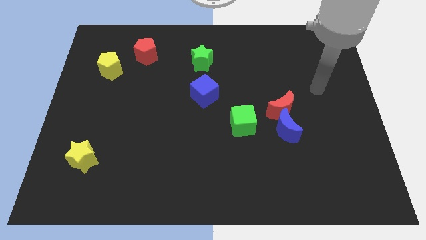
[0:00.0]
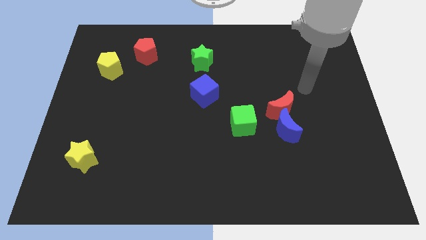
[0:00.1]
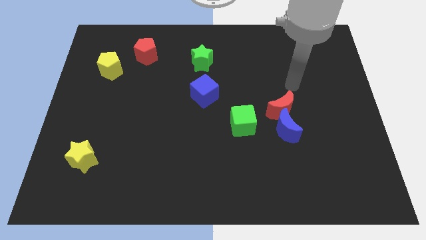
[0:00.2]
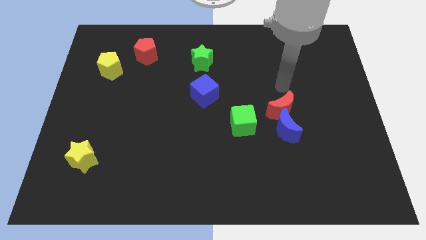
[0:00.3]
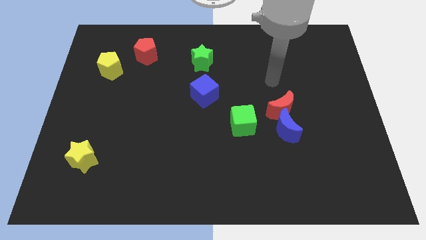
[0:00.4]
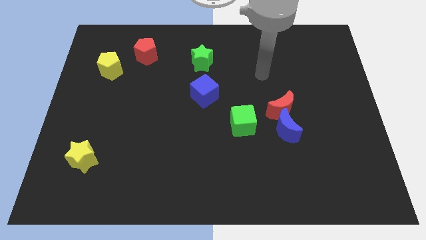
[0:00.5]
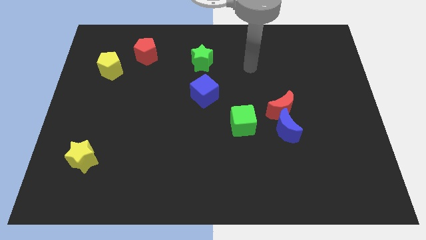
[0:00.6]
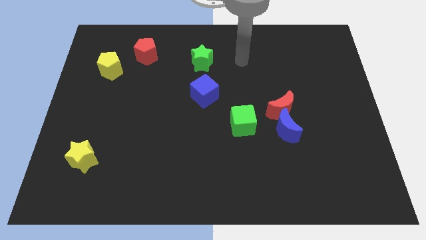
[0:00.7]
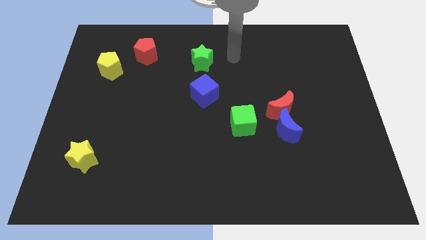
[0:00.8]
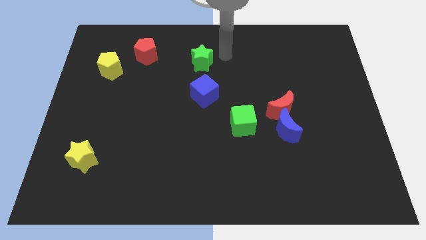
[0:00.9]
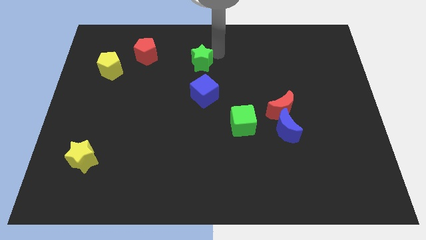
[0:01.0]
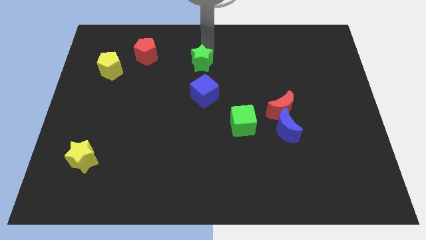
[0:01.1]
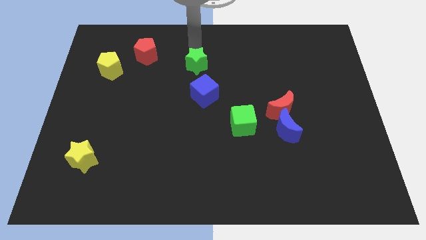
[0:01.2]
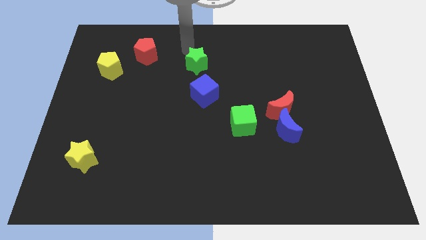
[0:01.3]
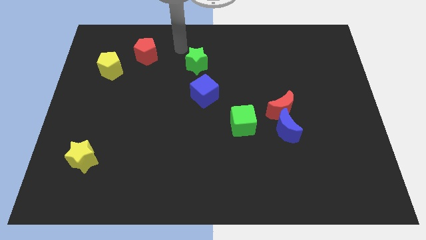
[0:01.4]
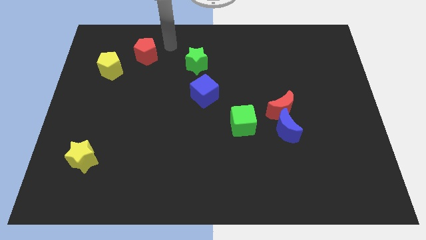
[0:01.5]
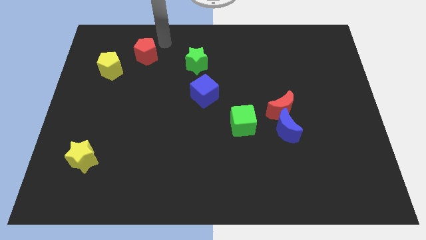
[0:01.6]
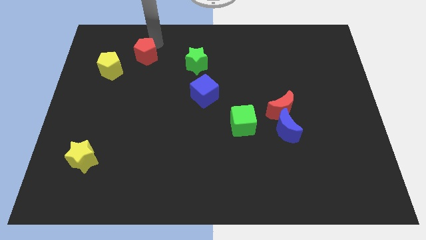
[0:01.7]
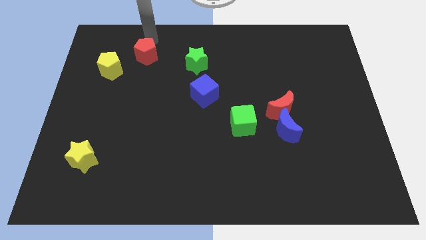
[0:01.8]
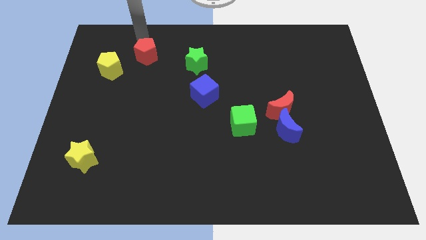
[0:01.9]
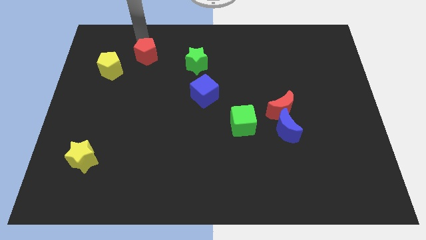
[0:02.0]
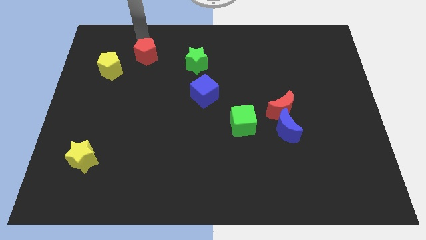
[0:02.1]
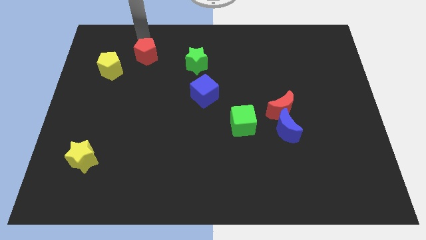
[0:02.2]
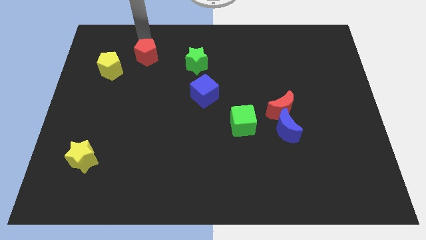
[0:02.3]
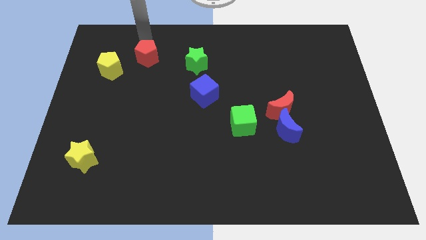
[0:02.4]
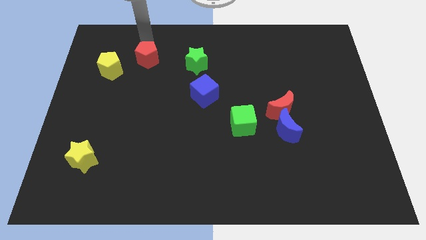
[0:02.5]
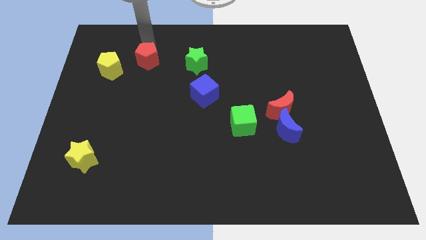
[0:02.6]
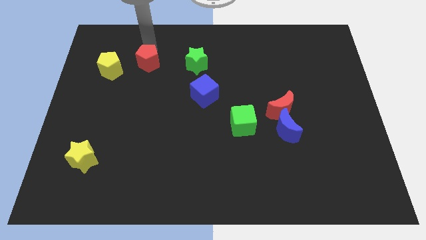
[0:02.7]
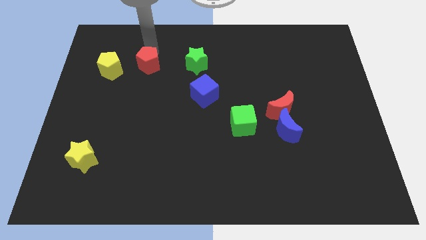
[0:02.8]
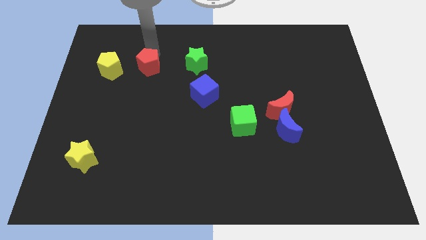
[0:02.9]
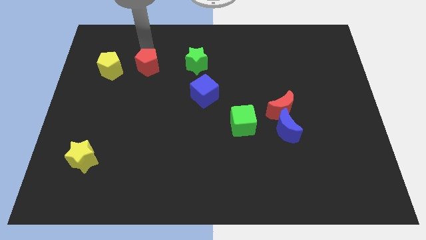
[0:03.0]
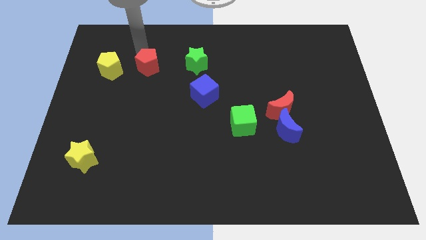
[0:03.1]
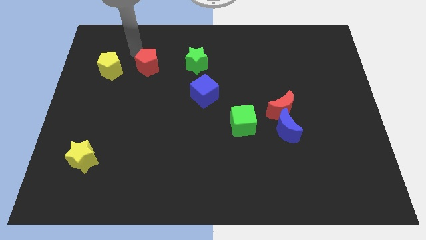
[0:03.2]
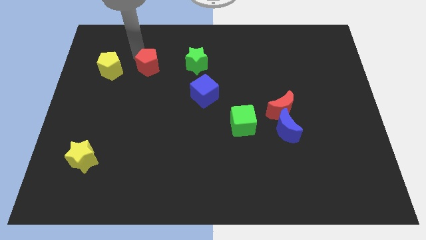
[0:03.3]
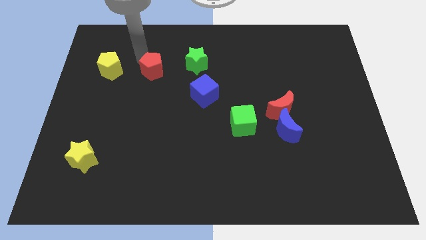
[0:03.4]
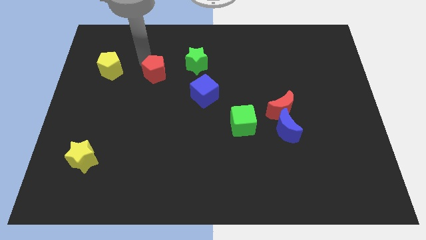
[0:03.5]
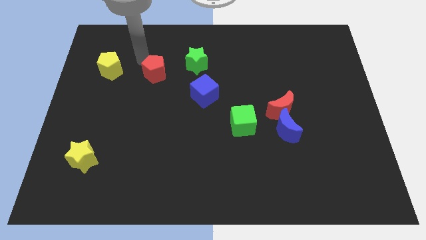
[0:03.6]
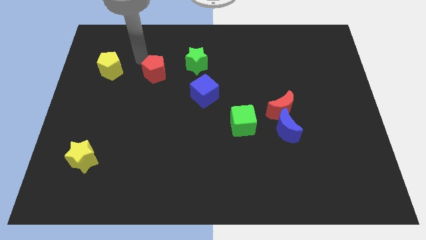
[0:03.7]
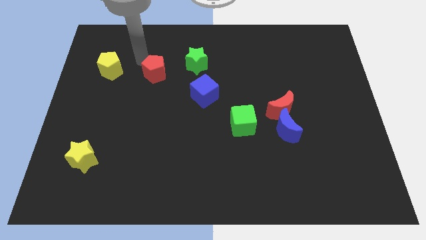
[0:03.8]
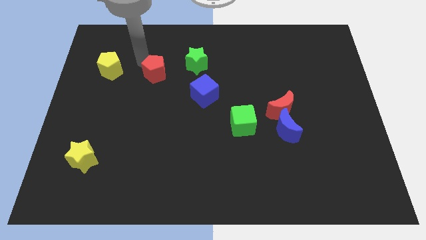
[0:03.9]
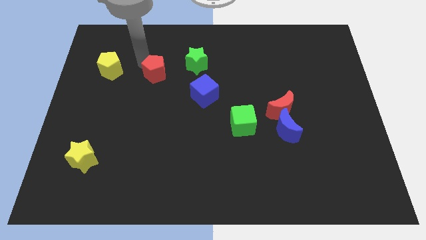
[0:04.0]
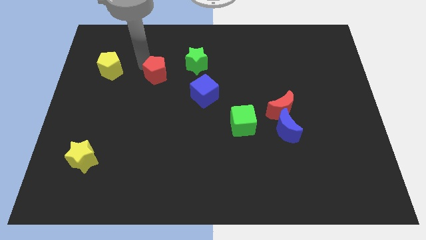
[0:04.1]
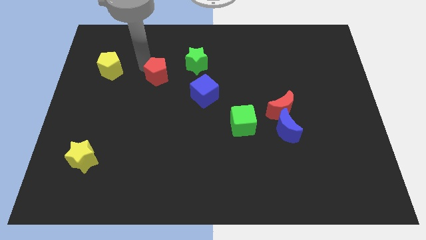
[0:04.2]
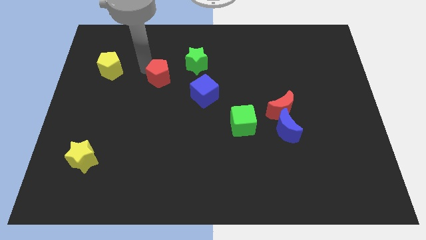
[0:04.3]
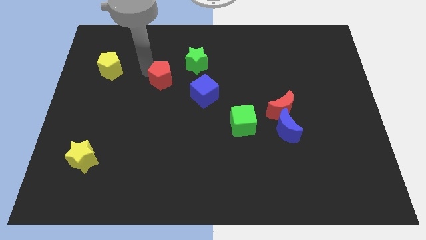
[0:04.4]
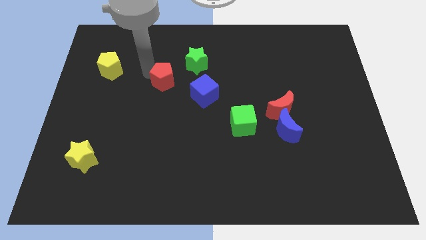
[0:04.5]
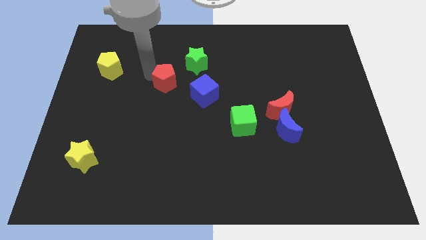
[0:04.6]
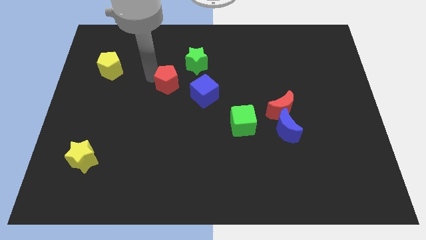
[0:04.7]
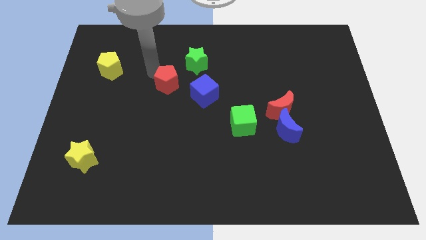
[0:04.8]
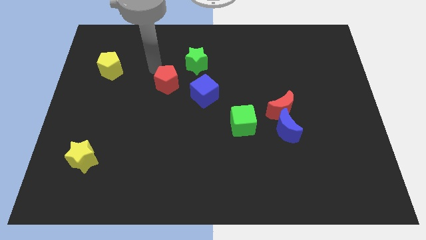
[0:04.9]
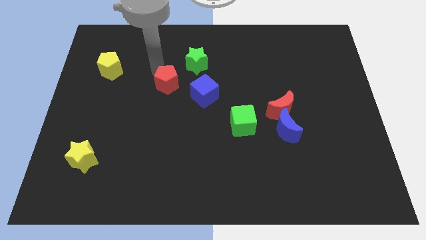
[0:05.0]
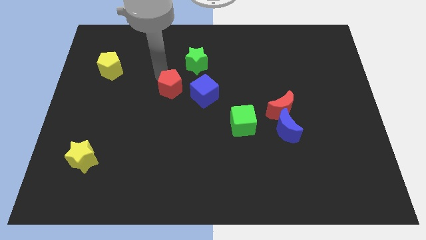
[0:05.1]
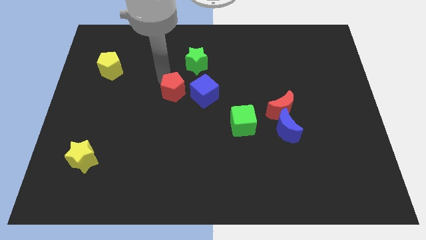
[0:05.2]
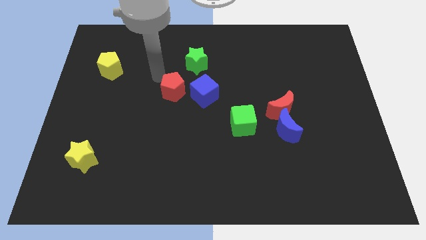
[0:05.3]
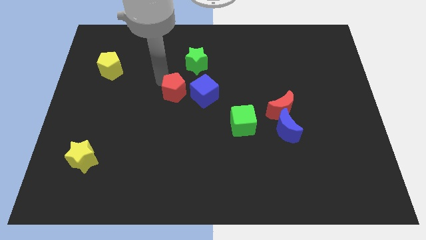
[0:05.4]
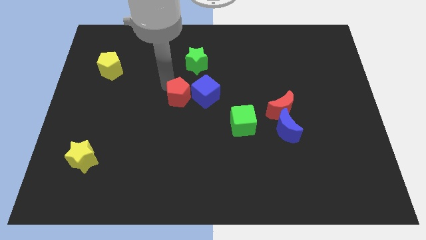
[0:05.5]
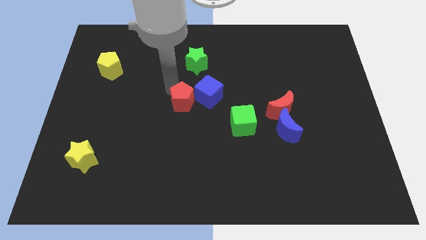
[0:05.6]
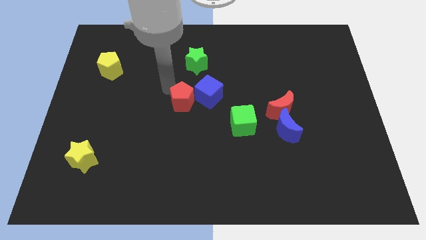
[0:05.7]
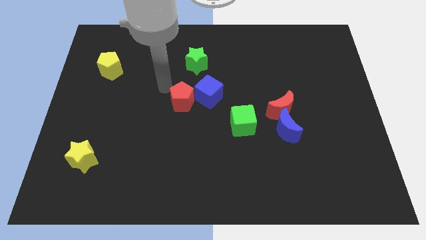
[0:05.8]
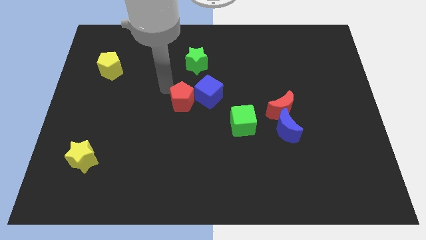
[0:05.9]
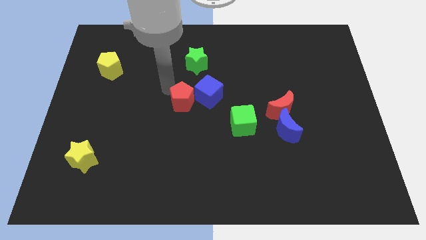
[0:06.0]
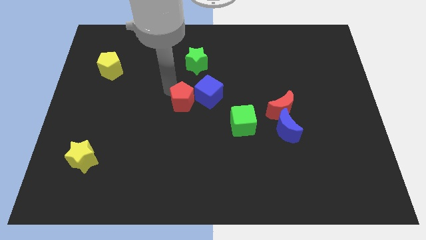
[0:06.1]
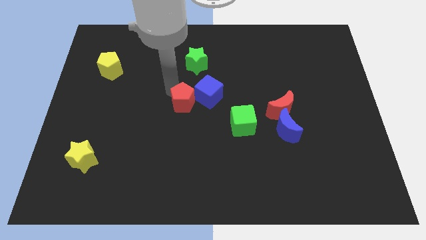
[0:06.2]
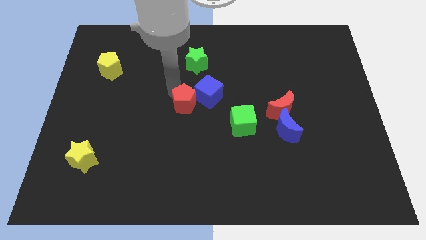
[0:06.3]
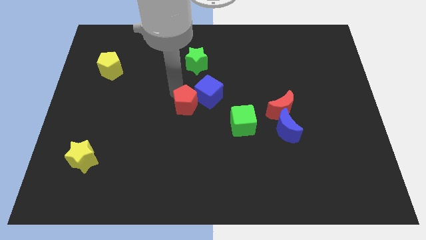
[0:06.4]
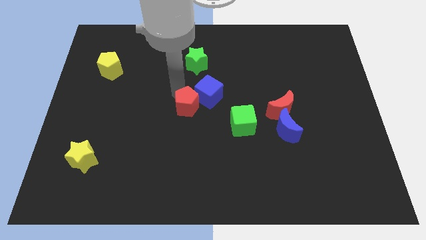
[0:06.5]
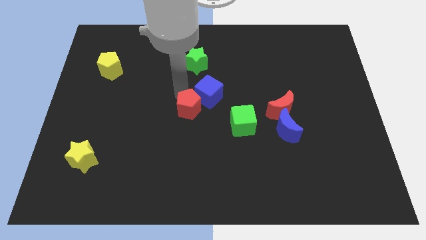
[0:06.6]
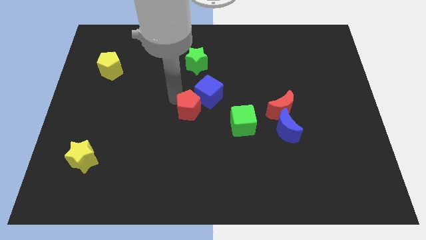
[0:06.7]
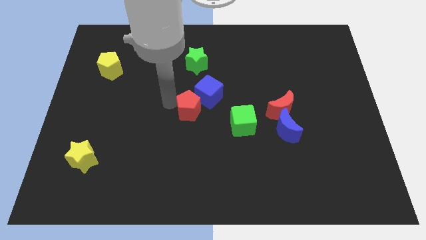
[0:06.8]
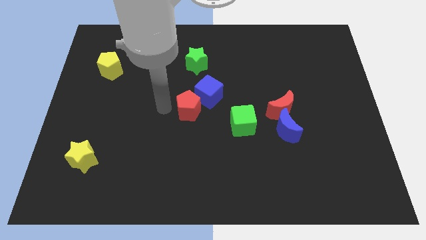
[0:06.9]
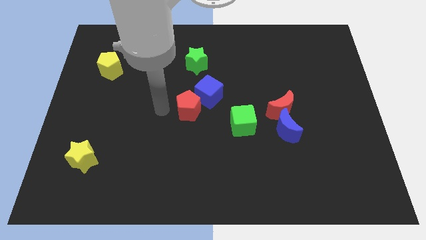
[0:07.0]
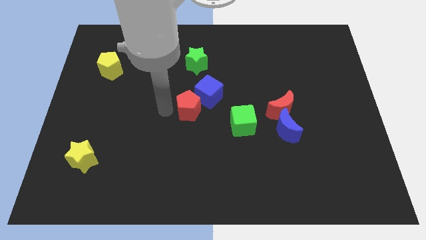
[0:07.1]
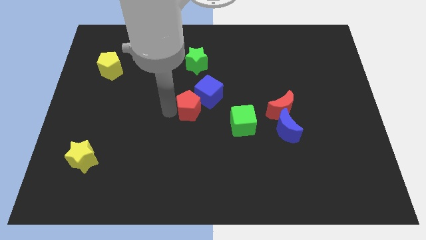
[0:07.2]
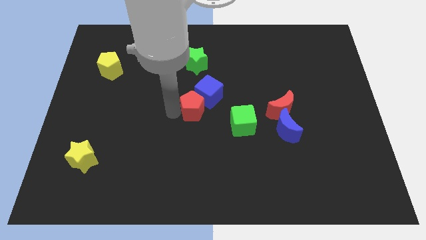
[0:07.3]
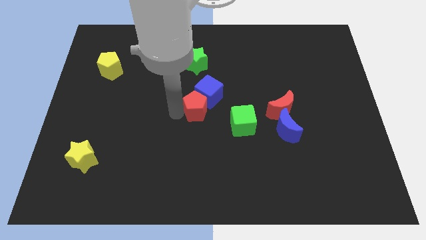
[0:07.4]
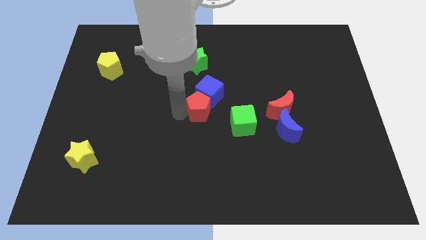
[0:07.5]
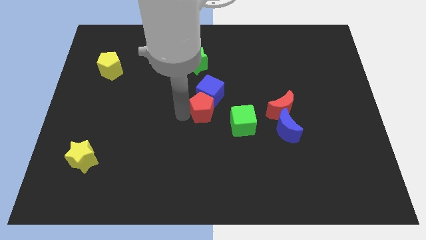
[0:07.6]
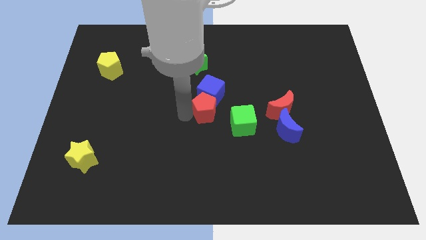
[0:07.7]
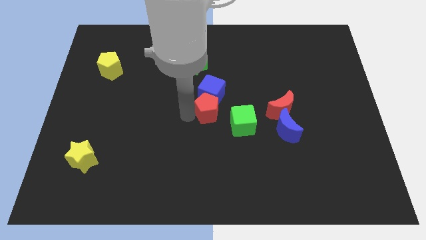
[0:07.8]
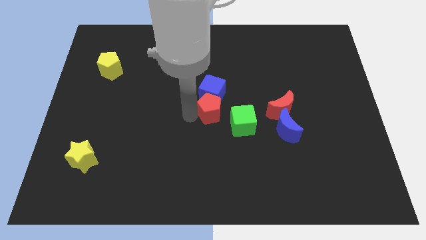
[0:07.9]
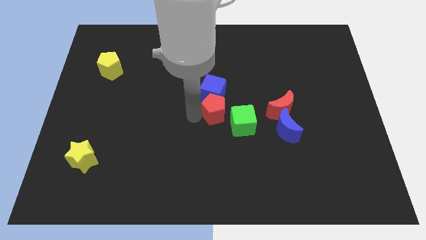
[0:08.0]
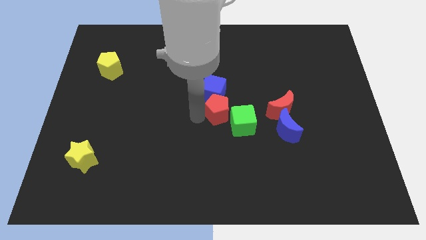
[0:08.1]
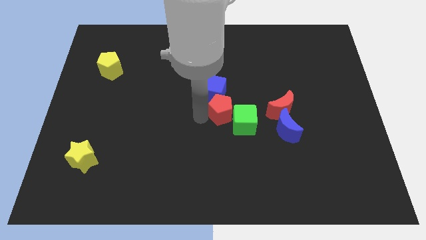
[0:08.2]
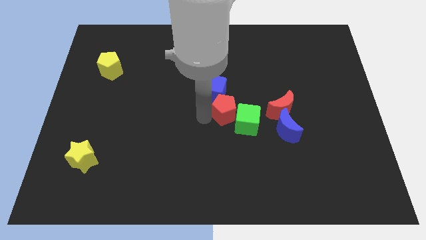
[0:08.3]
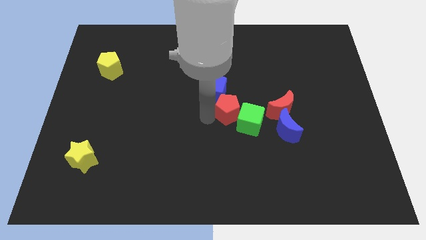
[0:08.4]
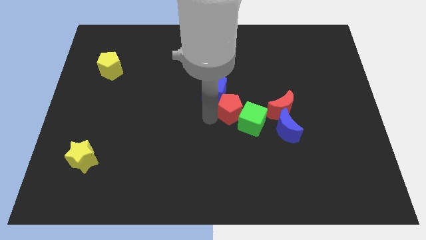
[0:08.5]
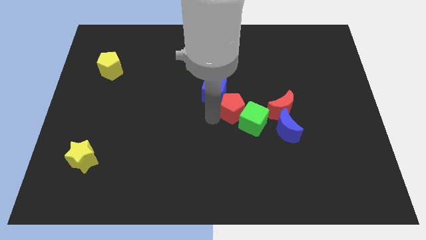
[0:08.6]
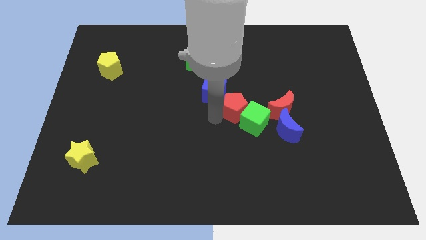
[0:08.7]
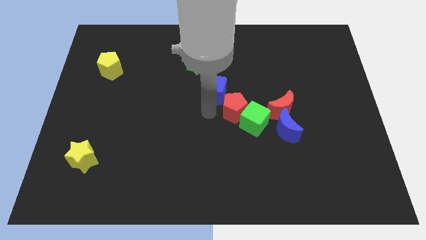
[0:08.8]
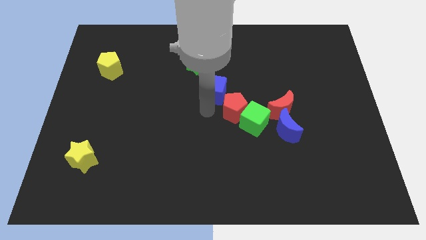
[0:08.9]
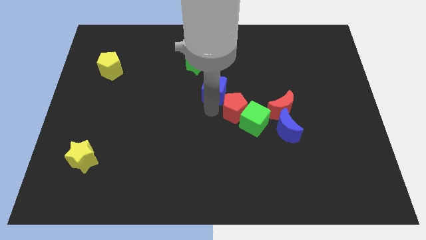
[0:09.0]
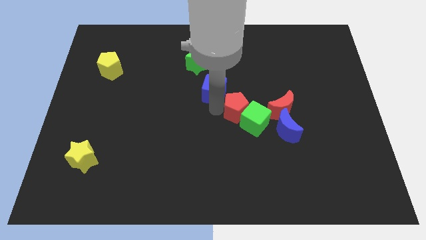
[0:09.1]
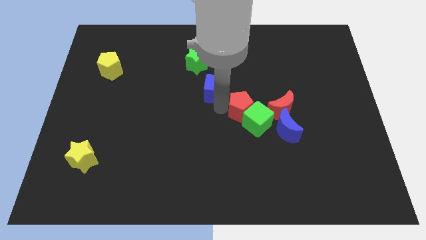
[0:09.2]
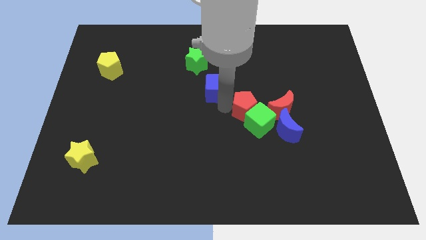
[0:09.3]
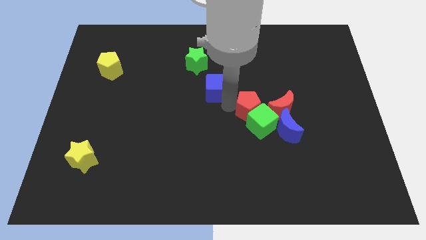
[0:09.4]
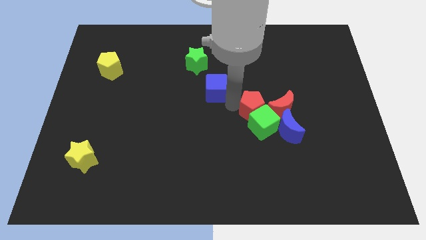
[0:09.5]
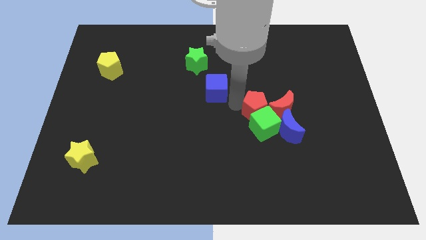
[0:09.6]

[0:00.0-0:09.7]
move the red pentagon close to the red moon
